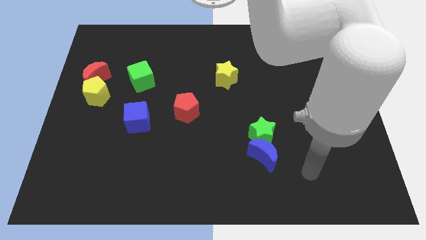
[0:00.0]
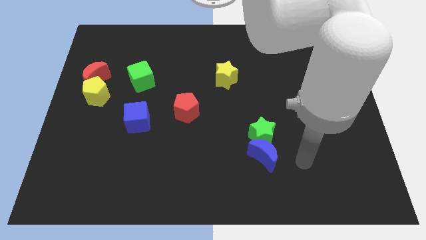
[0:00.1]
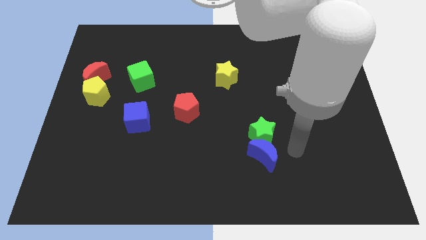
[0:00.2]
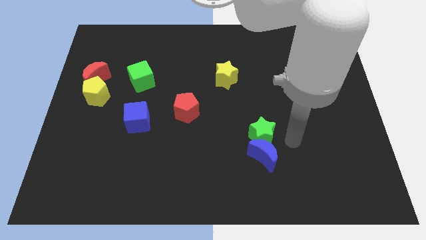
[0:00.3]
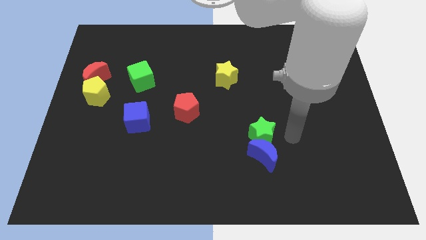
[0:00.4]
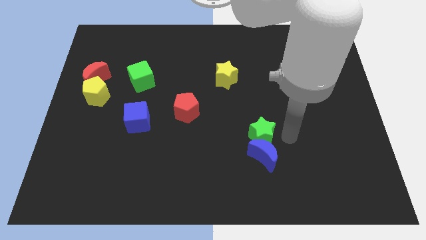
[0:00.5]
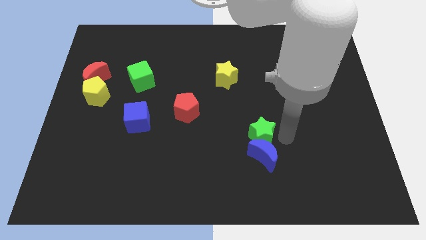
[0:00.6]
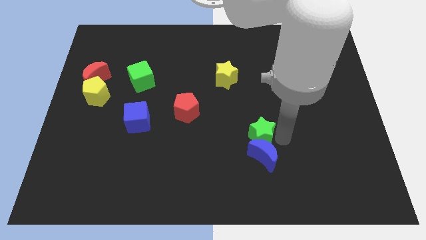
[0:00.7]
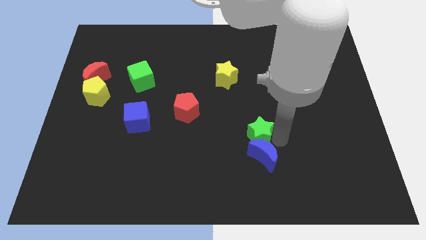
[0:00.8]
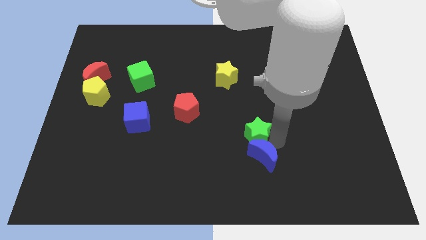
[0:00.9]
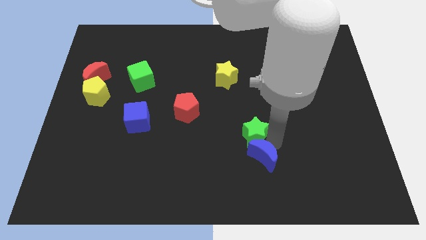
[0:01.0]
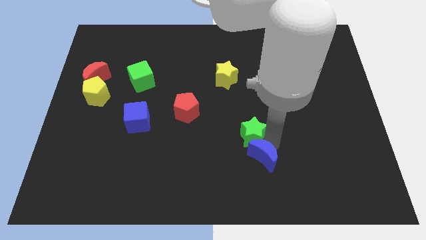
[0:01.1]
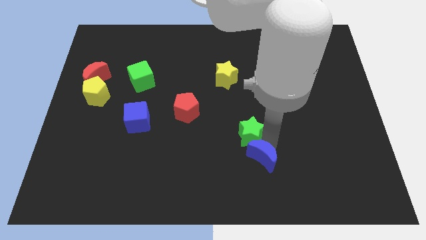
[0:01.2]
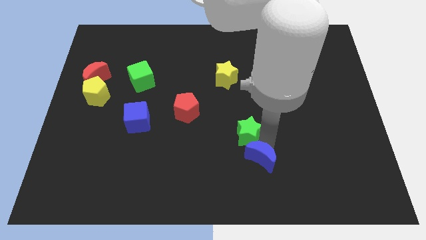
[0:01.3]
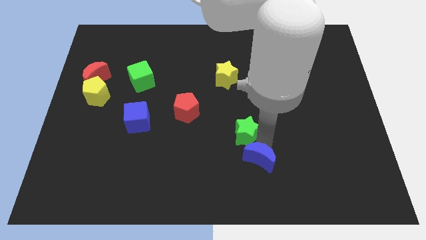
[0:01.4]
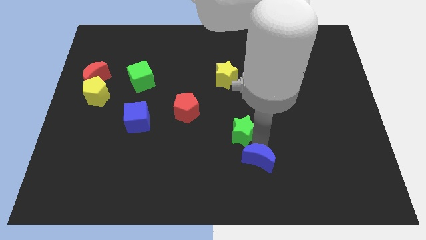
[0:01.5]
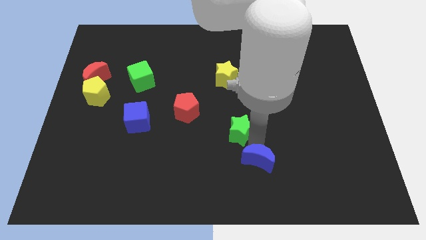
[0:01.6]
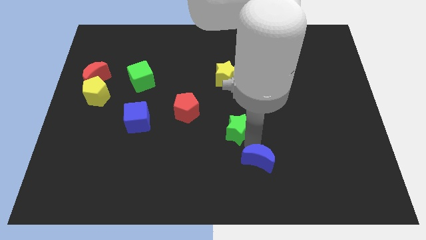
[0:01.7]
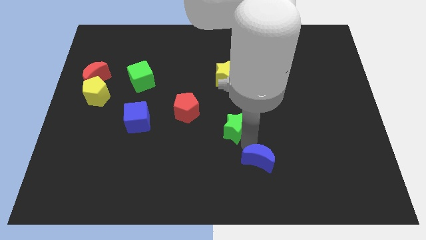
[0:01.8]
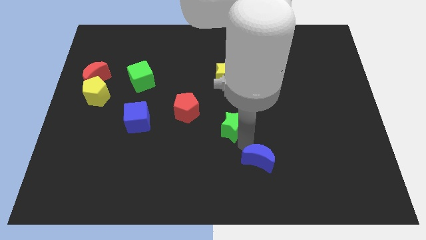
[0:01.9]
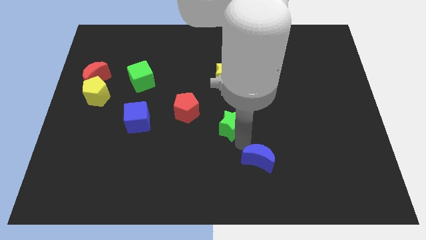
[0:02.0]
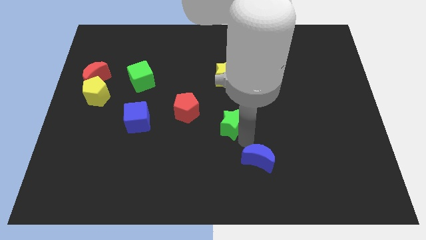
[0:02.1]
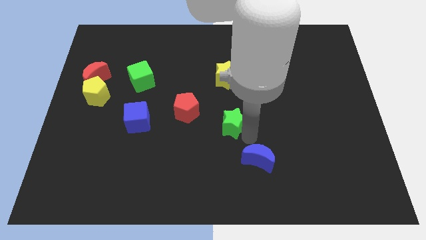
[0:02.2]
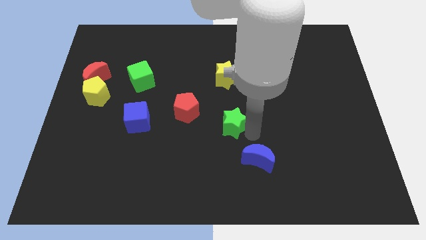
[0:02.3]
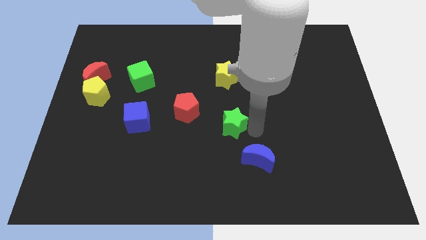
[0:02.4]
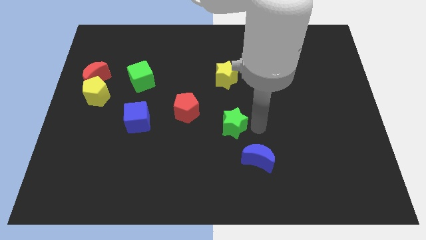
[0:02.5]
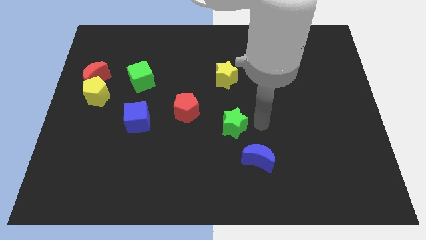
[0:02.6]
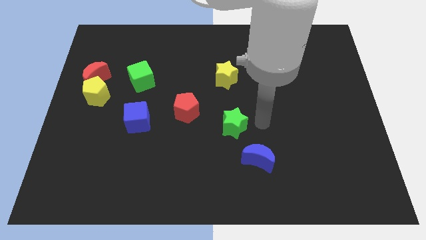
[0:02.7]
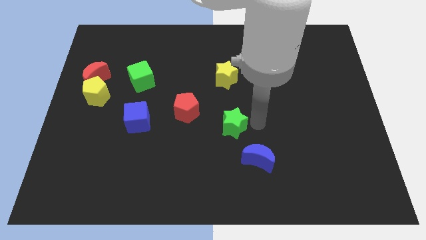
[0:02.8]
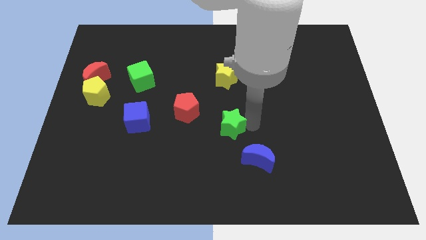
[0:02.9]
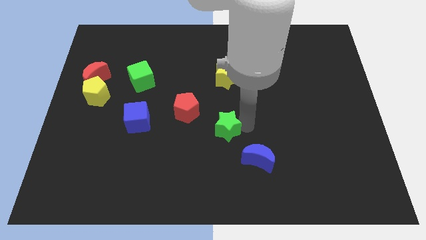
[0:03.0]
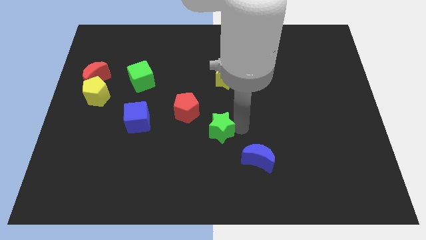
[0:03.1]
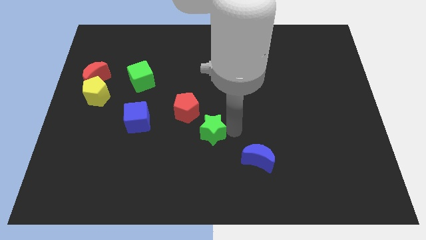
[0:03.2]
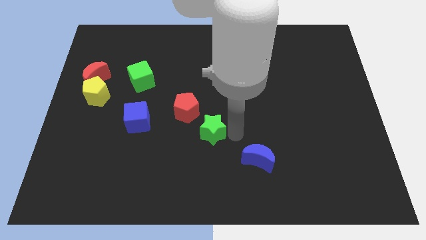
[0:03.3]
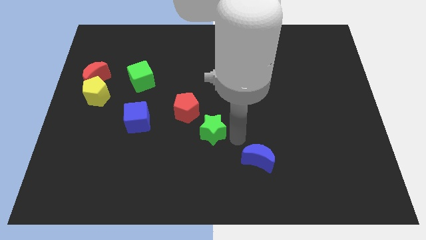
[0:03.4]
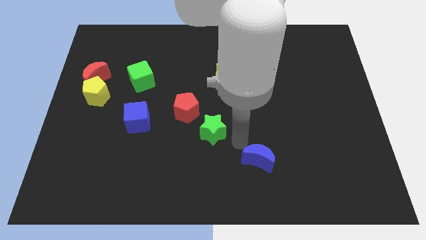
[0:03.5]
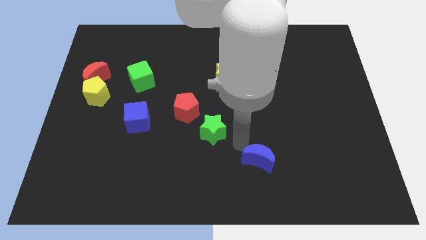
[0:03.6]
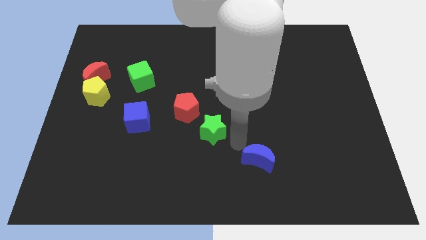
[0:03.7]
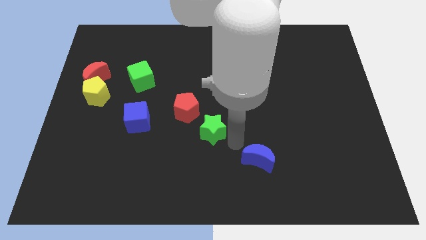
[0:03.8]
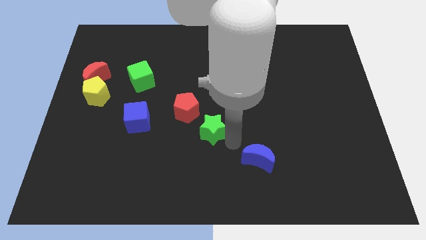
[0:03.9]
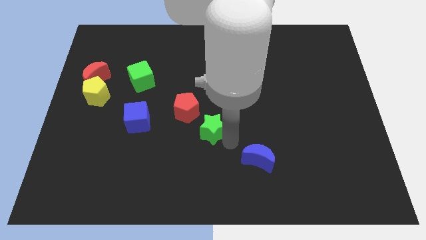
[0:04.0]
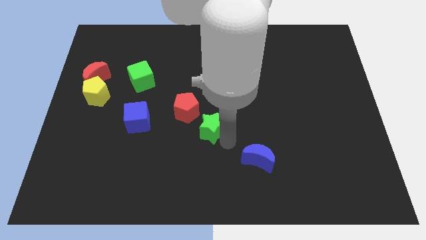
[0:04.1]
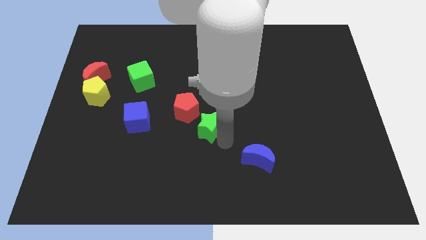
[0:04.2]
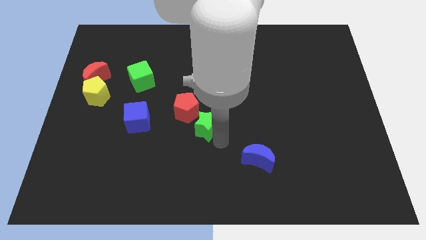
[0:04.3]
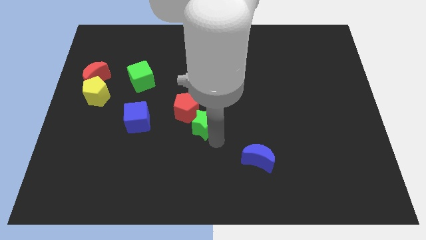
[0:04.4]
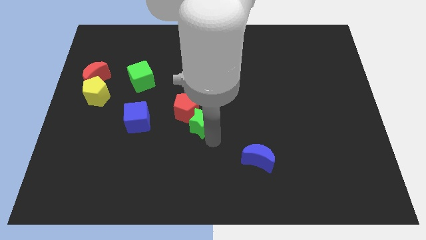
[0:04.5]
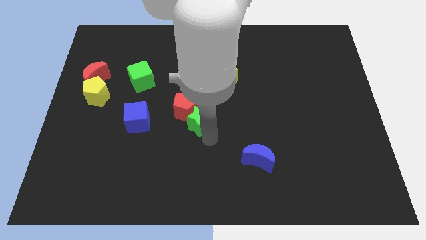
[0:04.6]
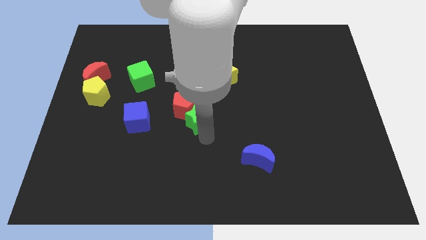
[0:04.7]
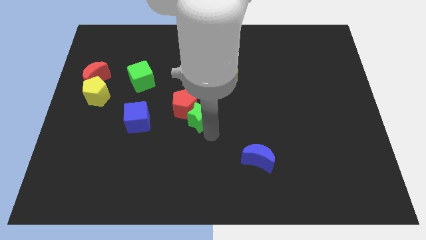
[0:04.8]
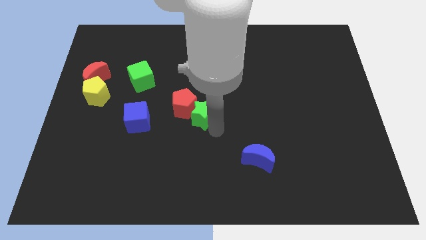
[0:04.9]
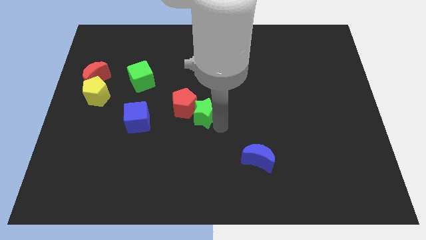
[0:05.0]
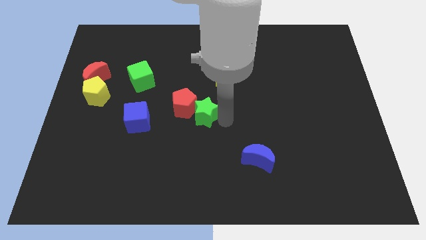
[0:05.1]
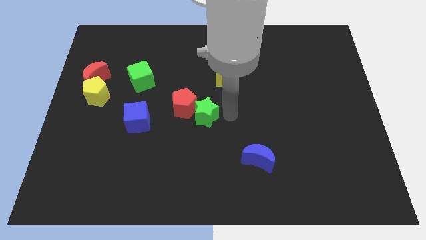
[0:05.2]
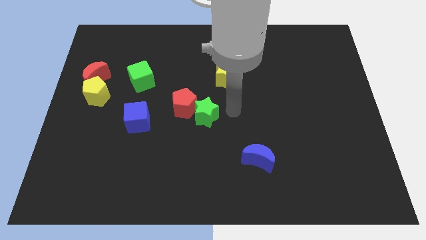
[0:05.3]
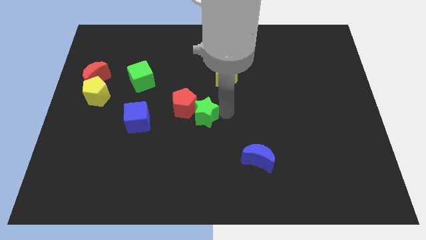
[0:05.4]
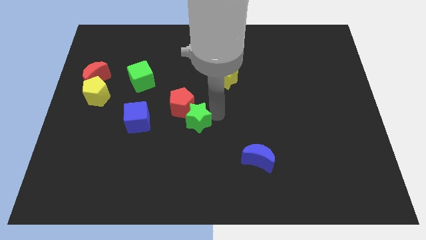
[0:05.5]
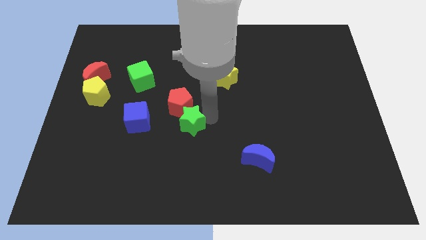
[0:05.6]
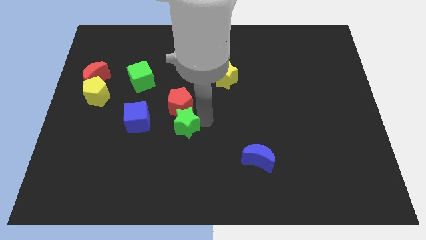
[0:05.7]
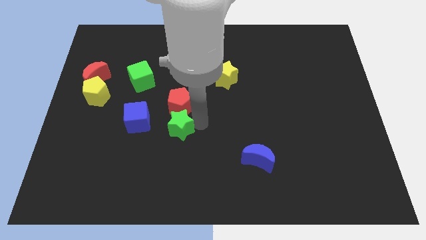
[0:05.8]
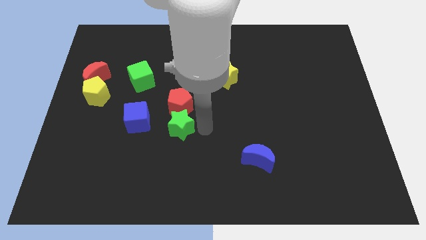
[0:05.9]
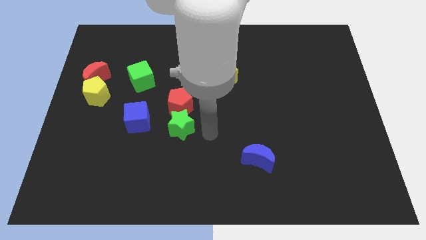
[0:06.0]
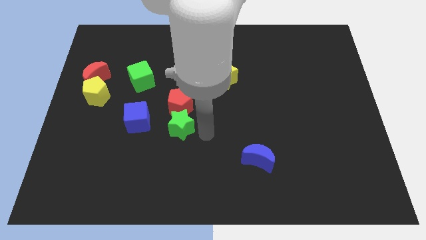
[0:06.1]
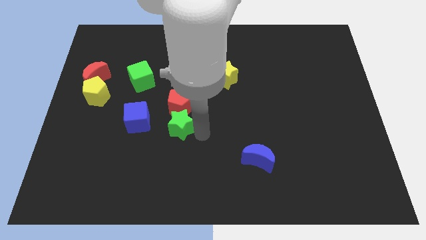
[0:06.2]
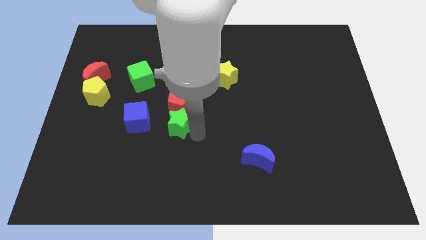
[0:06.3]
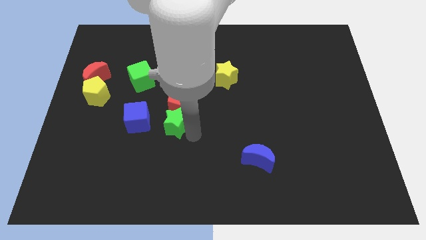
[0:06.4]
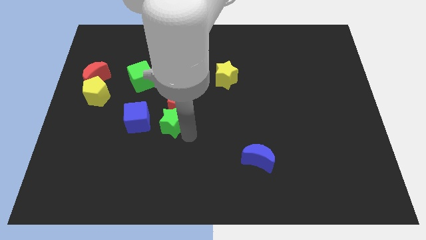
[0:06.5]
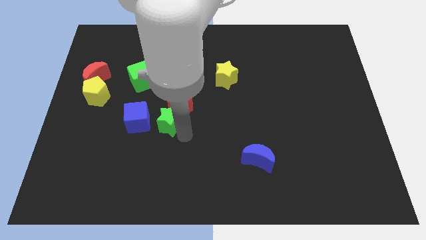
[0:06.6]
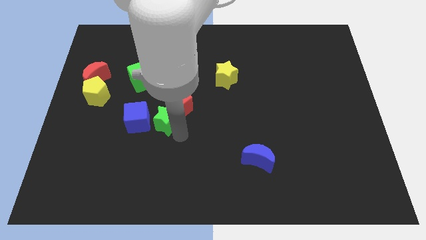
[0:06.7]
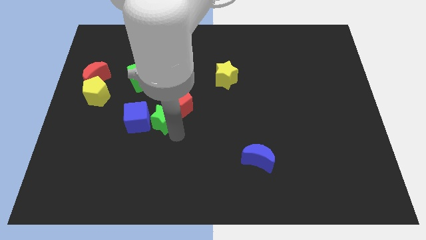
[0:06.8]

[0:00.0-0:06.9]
put the green star to the blue cube
